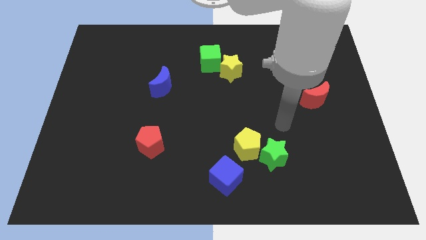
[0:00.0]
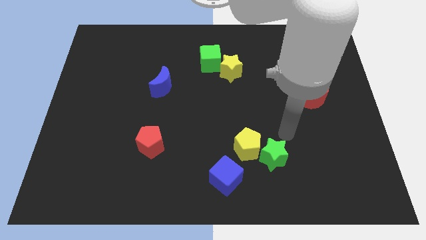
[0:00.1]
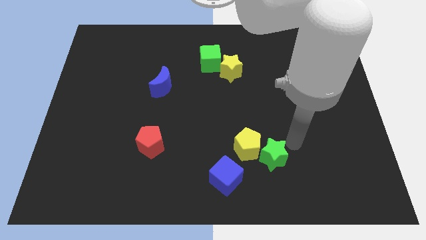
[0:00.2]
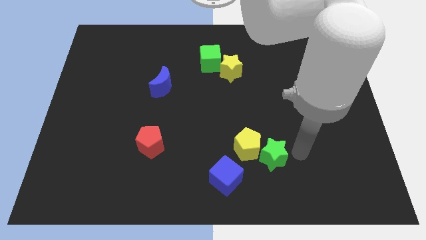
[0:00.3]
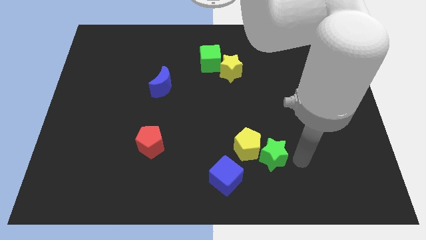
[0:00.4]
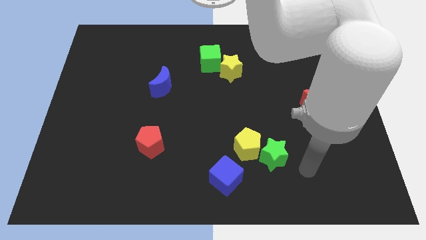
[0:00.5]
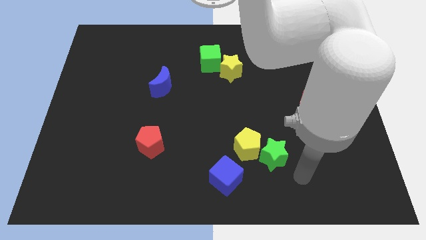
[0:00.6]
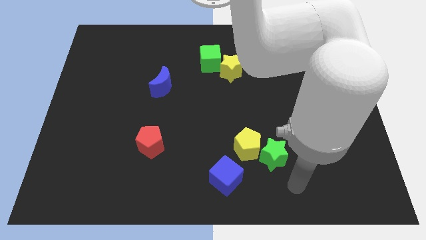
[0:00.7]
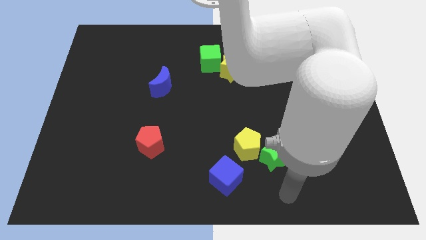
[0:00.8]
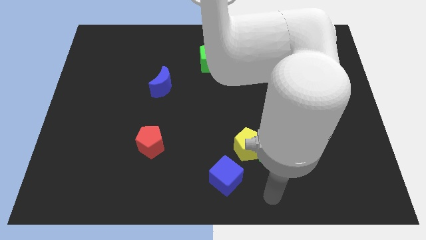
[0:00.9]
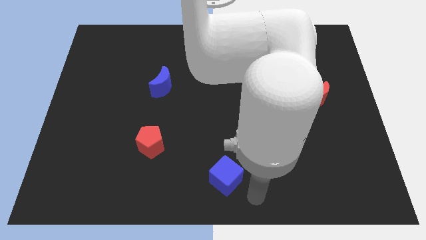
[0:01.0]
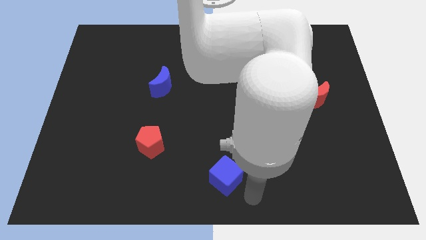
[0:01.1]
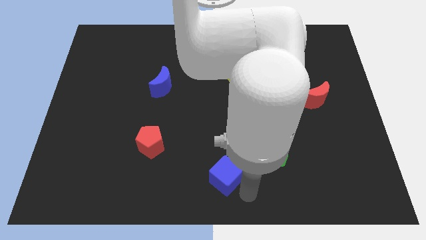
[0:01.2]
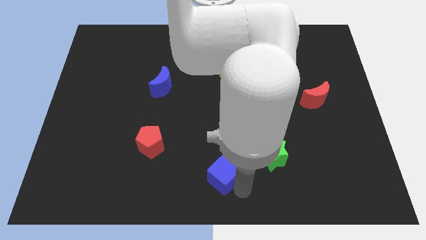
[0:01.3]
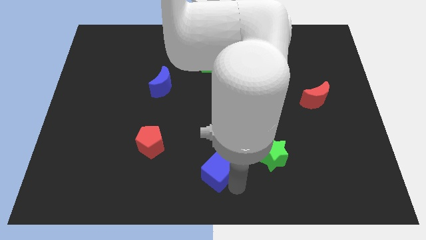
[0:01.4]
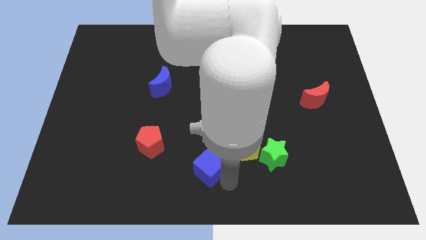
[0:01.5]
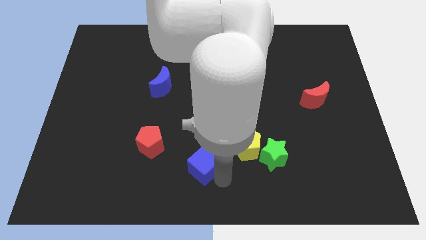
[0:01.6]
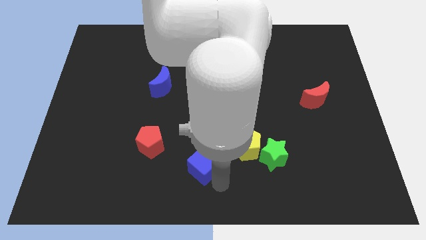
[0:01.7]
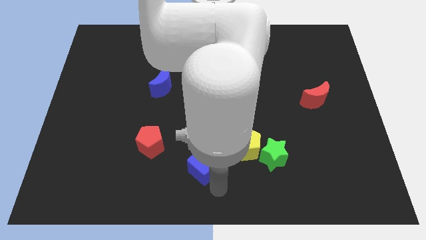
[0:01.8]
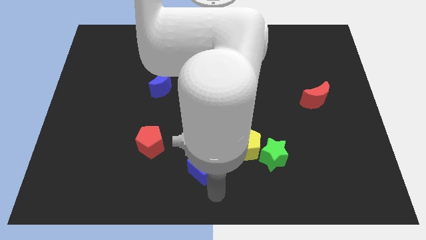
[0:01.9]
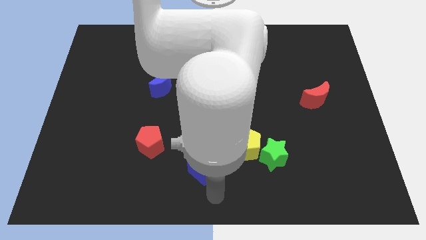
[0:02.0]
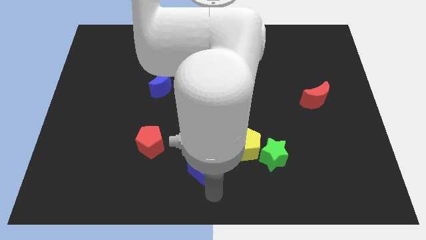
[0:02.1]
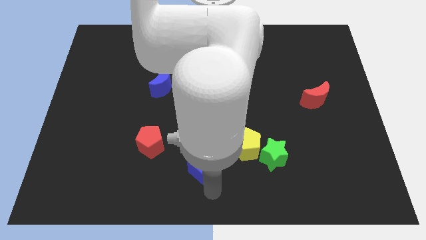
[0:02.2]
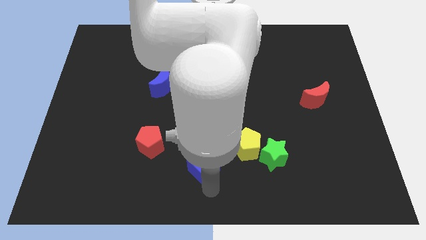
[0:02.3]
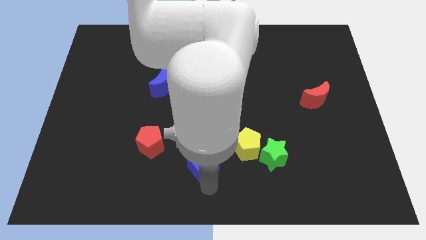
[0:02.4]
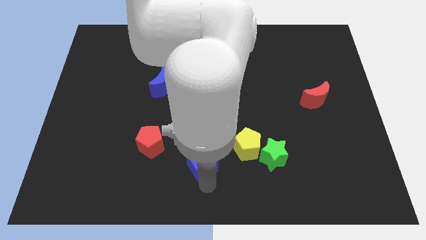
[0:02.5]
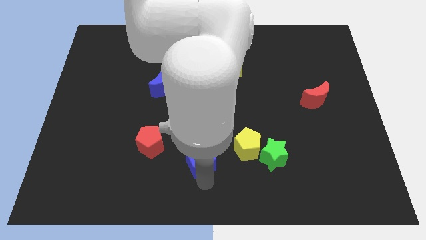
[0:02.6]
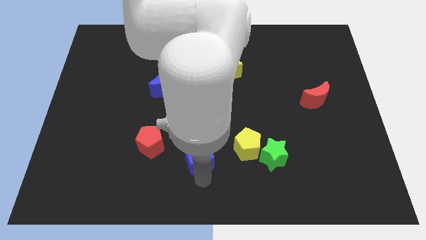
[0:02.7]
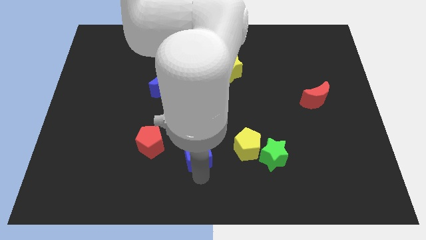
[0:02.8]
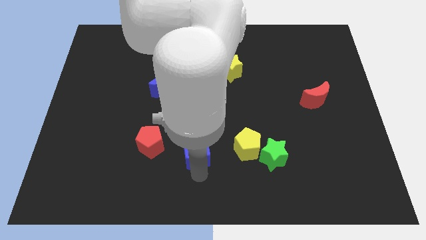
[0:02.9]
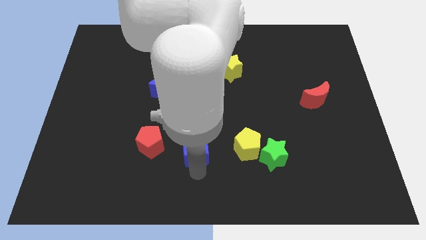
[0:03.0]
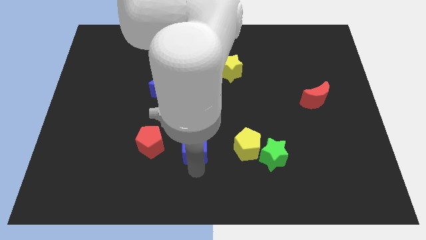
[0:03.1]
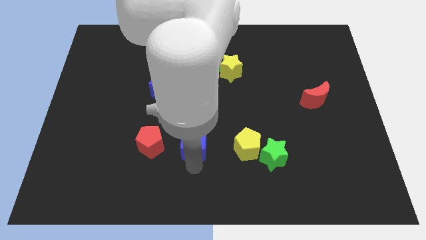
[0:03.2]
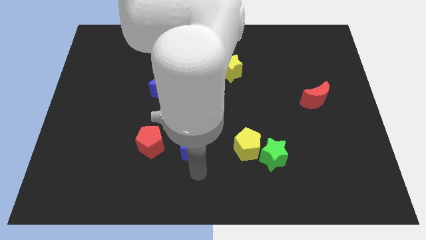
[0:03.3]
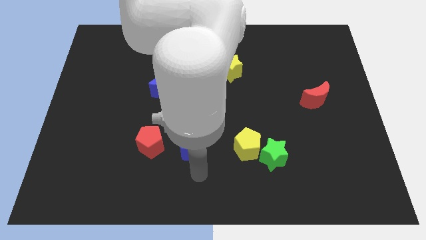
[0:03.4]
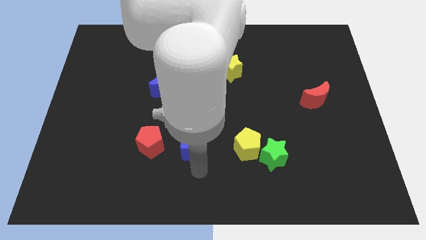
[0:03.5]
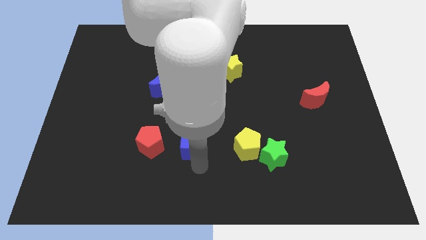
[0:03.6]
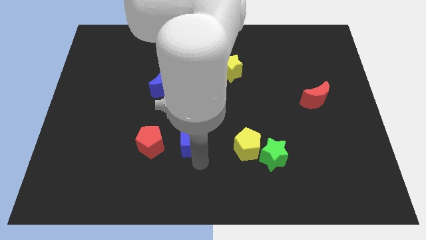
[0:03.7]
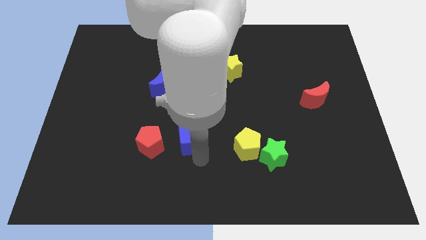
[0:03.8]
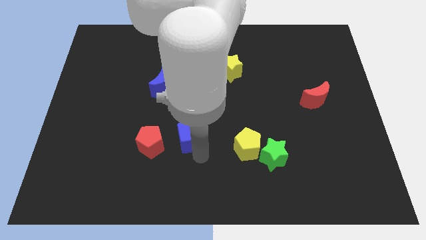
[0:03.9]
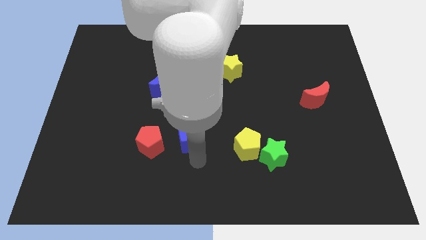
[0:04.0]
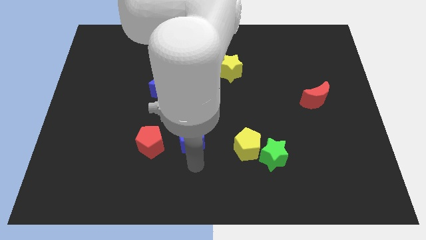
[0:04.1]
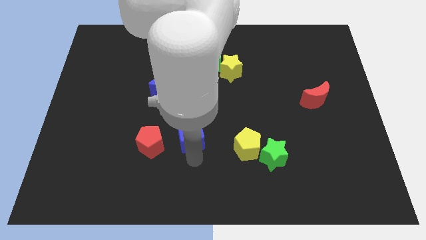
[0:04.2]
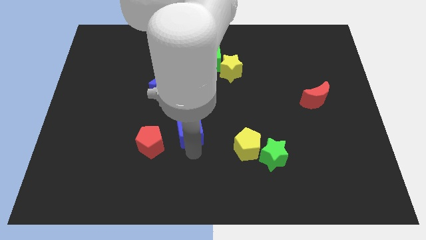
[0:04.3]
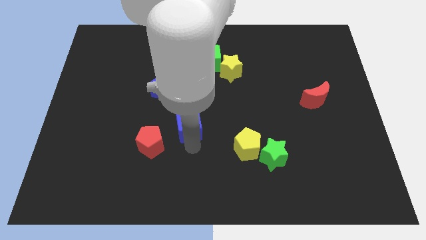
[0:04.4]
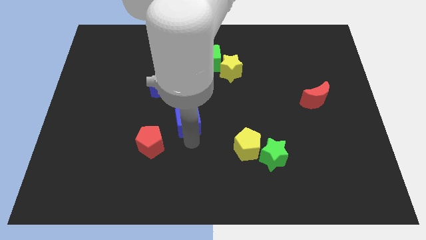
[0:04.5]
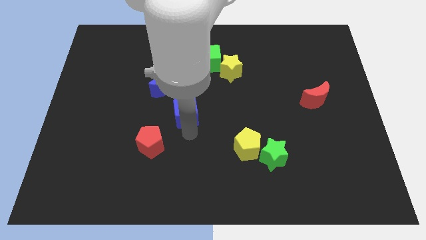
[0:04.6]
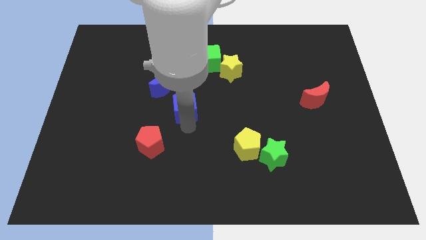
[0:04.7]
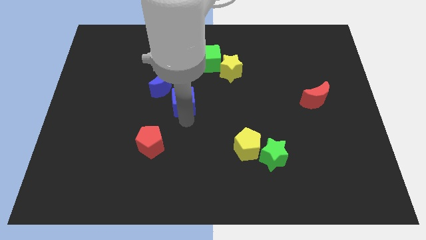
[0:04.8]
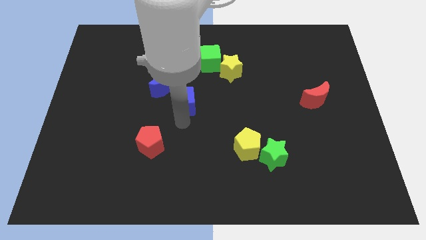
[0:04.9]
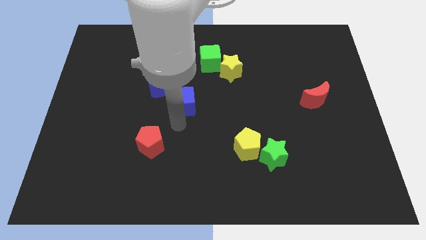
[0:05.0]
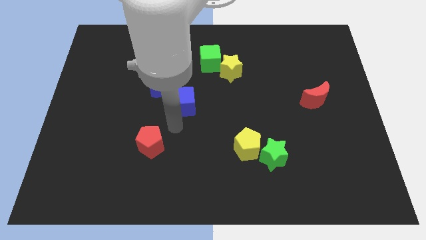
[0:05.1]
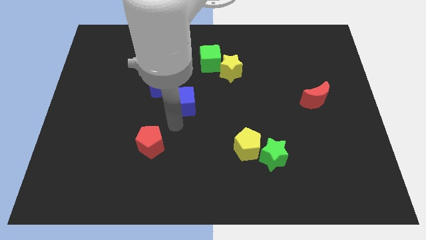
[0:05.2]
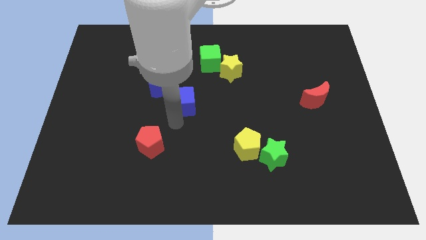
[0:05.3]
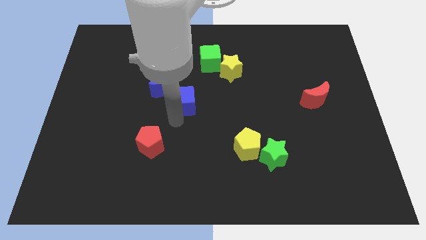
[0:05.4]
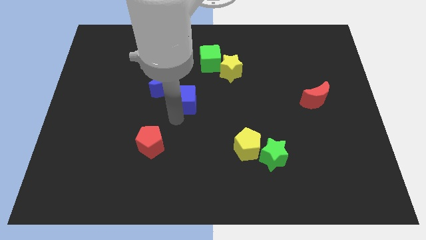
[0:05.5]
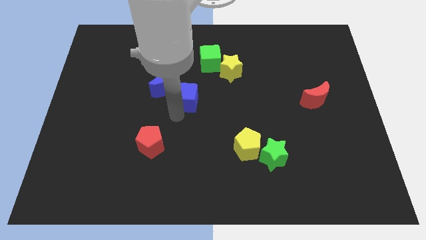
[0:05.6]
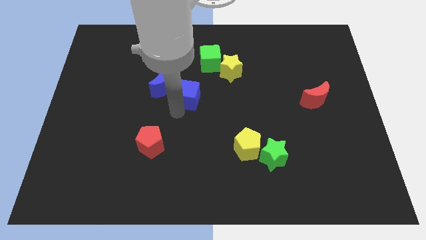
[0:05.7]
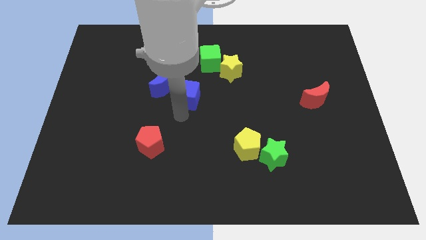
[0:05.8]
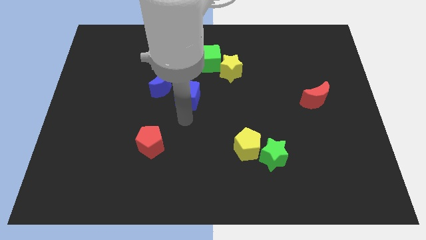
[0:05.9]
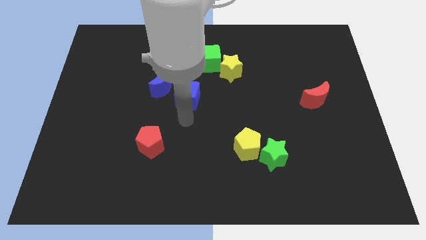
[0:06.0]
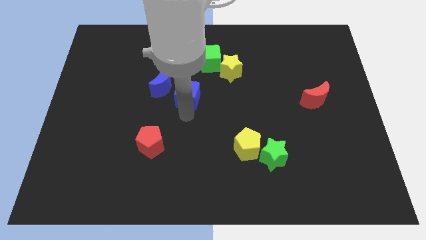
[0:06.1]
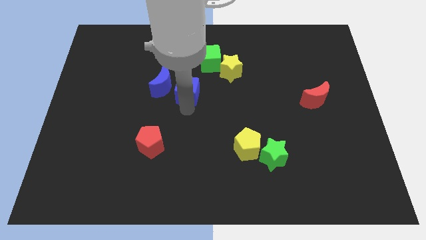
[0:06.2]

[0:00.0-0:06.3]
slide the blue cube to the bottom left of the green cube

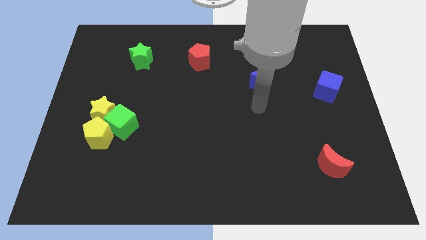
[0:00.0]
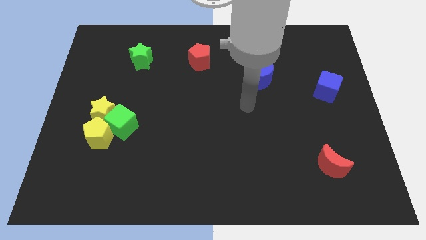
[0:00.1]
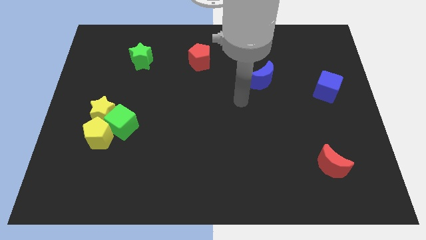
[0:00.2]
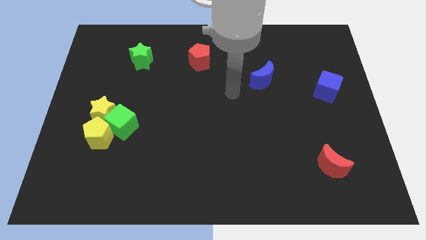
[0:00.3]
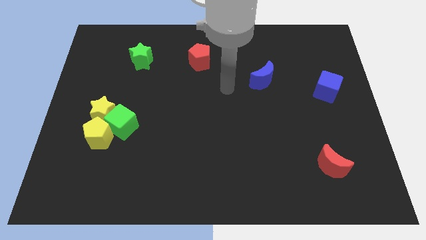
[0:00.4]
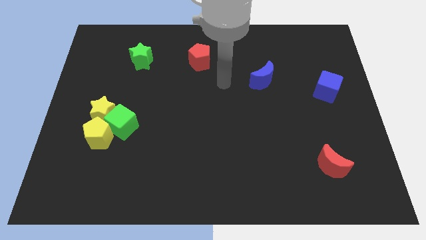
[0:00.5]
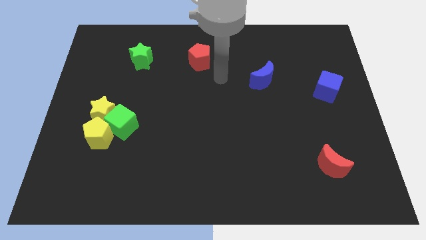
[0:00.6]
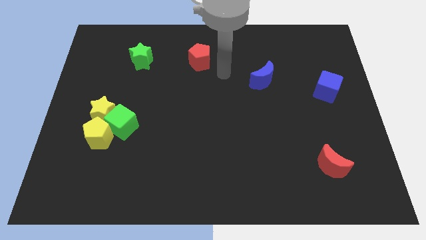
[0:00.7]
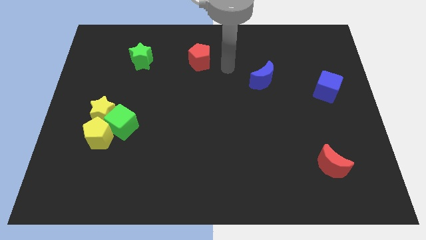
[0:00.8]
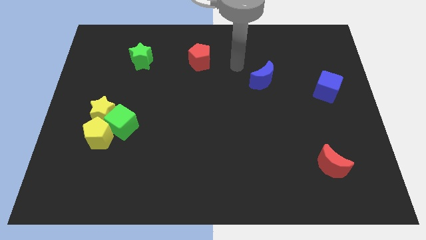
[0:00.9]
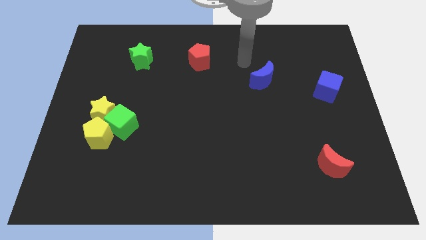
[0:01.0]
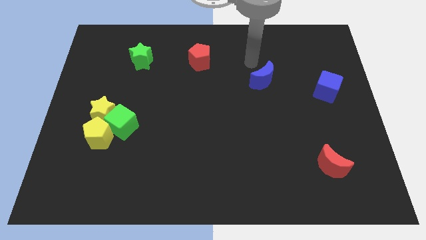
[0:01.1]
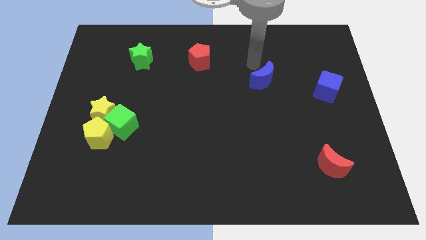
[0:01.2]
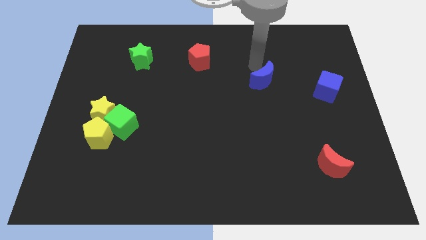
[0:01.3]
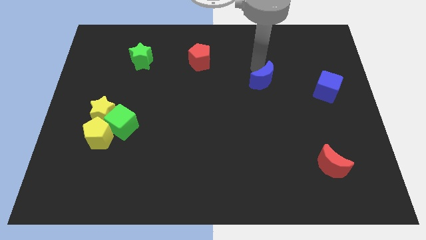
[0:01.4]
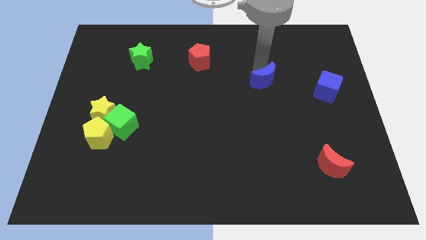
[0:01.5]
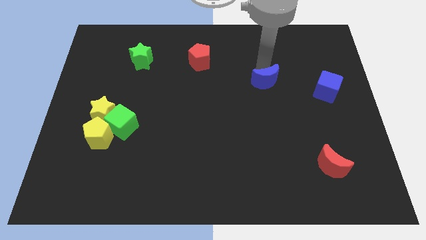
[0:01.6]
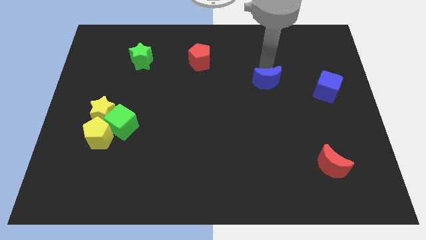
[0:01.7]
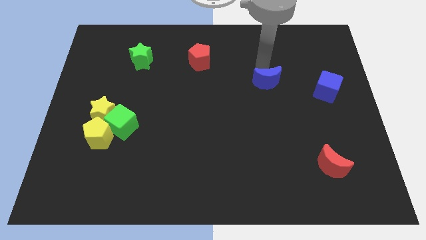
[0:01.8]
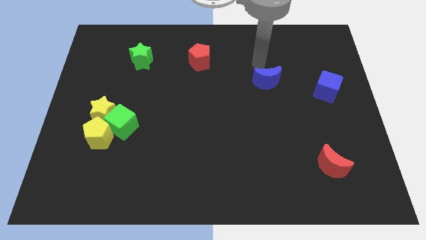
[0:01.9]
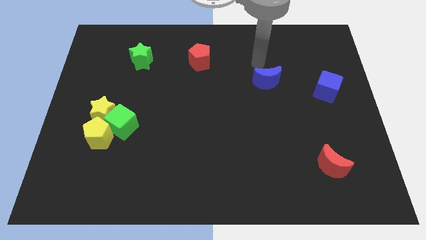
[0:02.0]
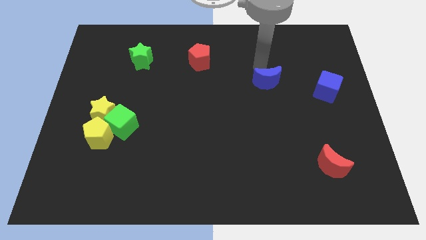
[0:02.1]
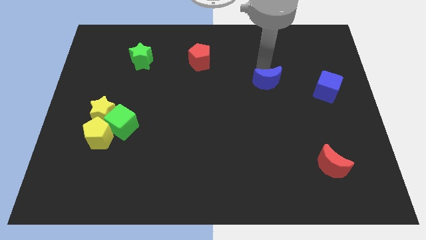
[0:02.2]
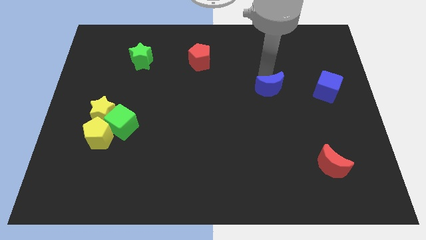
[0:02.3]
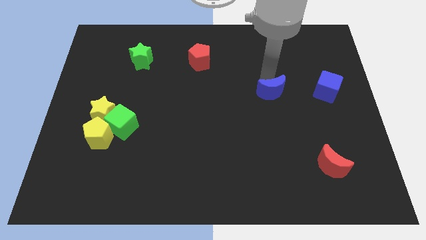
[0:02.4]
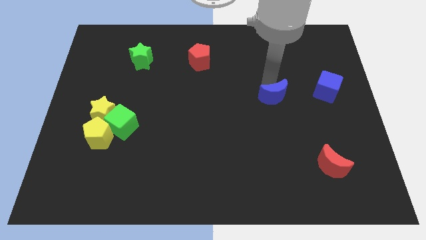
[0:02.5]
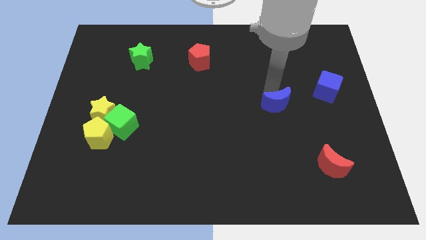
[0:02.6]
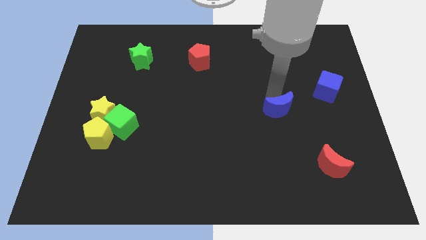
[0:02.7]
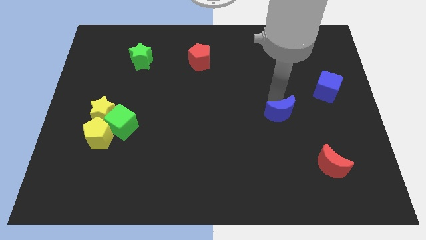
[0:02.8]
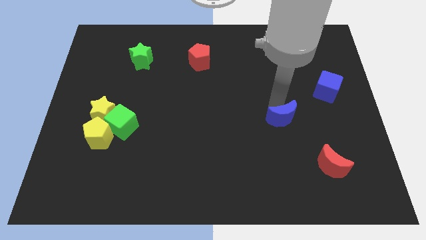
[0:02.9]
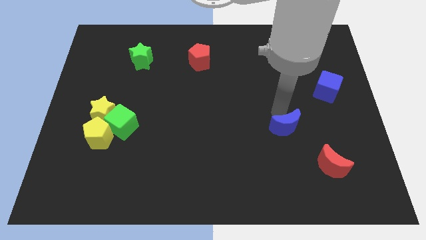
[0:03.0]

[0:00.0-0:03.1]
move the blue moon diagonally up and to the left of the red moon
